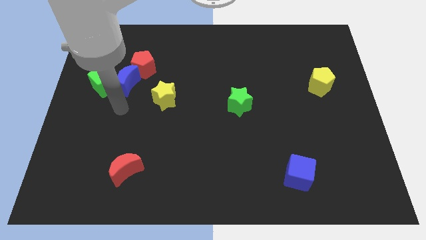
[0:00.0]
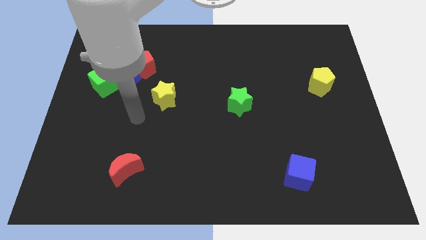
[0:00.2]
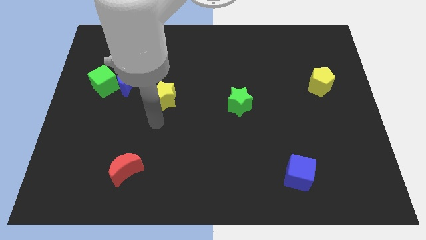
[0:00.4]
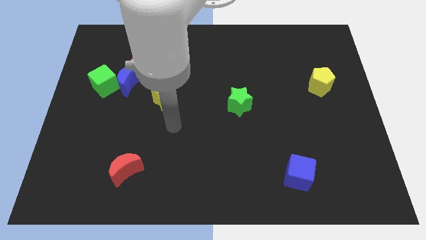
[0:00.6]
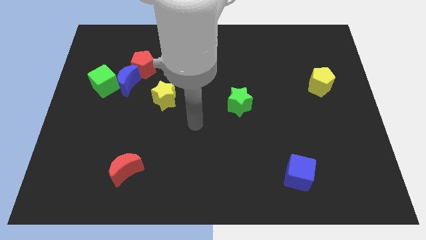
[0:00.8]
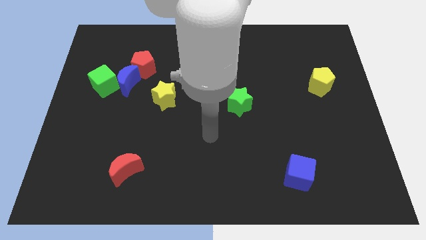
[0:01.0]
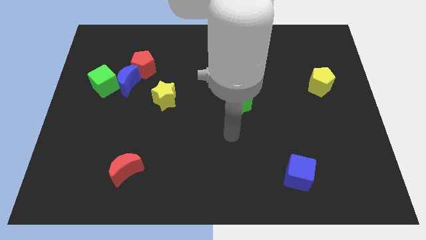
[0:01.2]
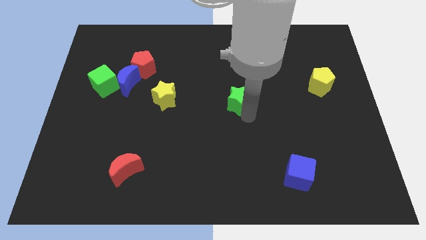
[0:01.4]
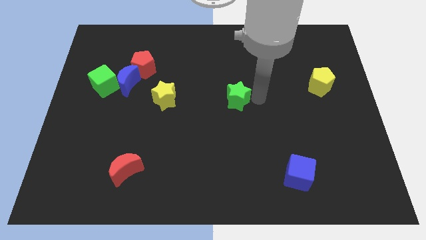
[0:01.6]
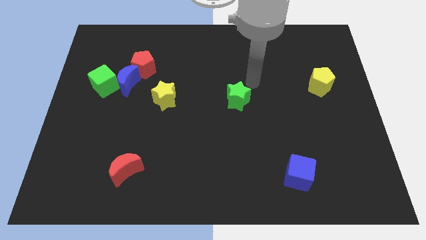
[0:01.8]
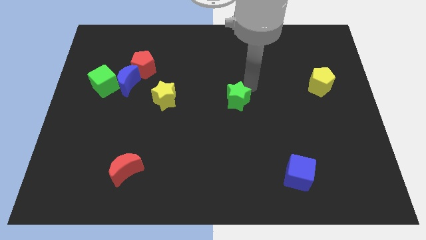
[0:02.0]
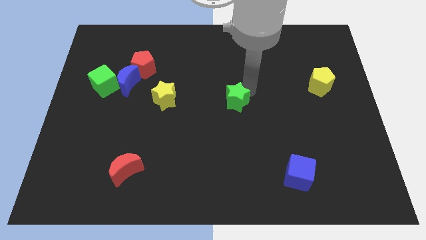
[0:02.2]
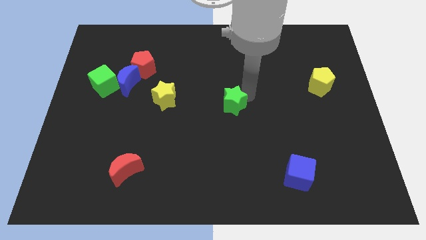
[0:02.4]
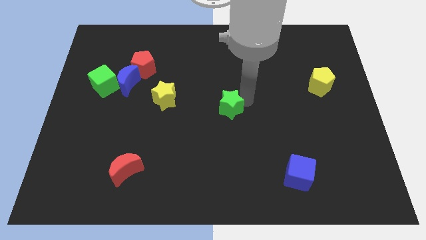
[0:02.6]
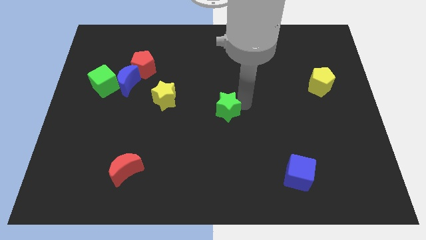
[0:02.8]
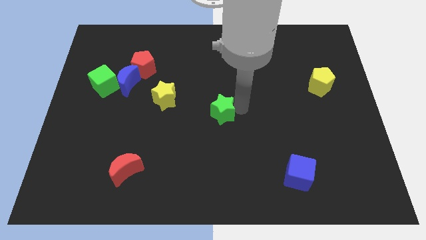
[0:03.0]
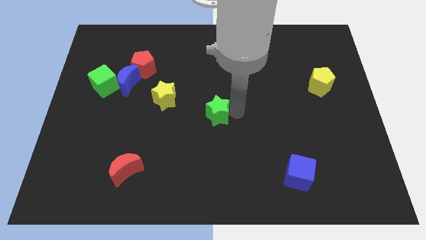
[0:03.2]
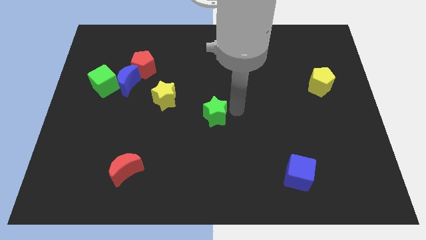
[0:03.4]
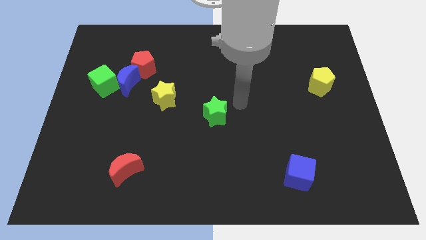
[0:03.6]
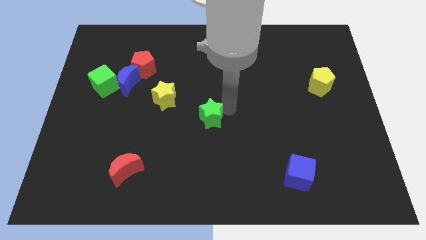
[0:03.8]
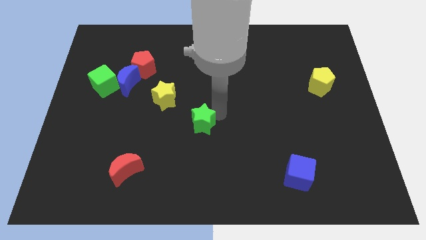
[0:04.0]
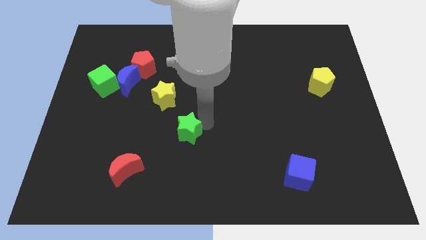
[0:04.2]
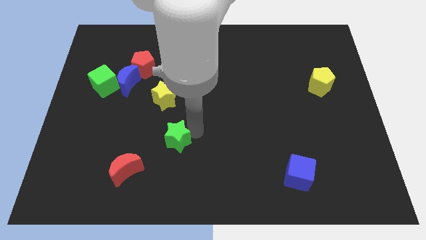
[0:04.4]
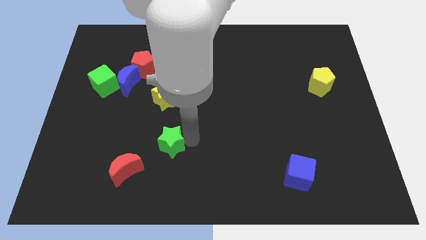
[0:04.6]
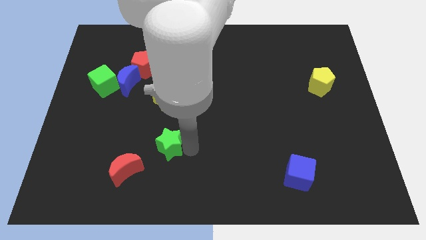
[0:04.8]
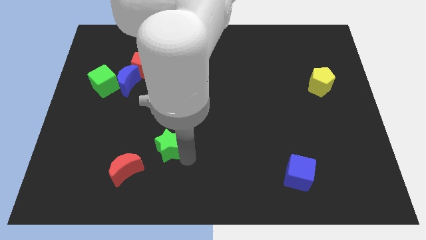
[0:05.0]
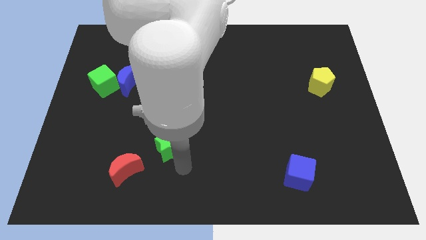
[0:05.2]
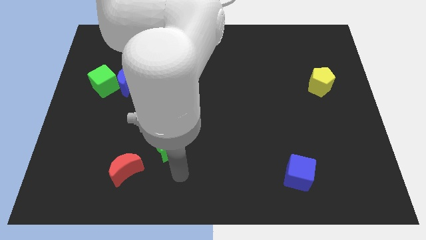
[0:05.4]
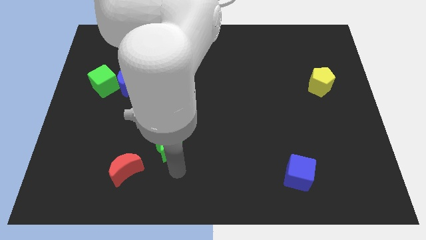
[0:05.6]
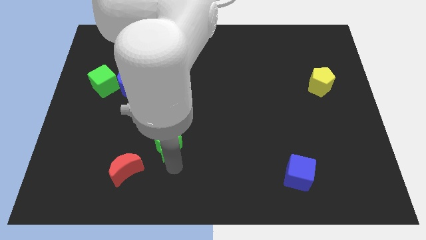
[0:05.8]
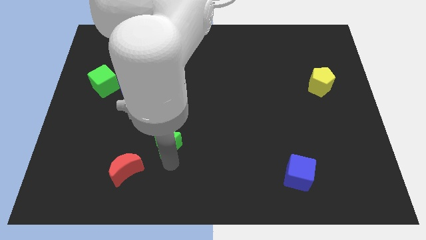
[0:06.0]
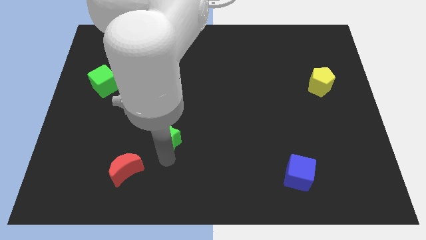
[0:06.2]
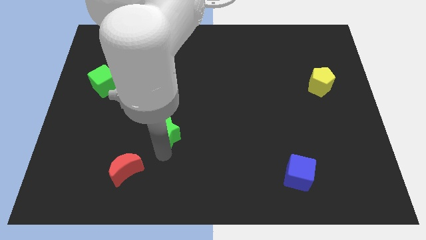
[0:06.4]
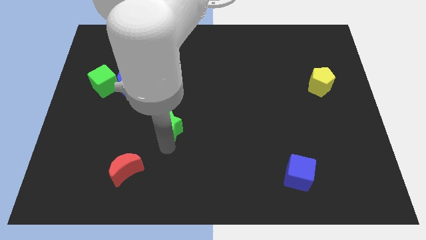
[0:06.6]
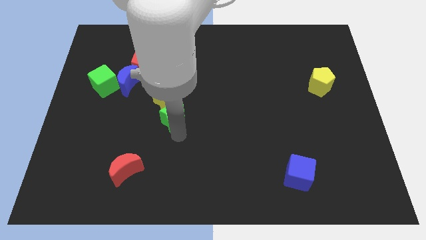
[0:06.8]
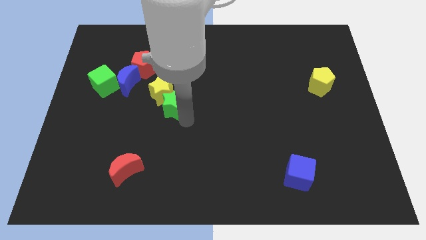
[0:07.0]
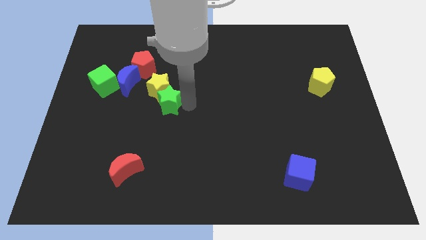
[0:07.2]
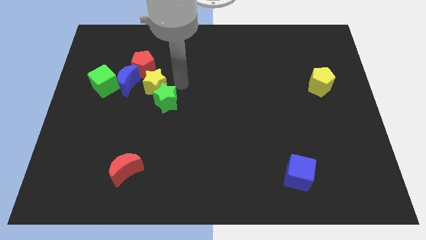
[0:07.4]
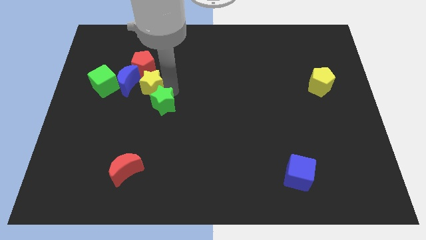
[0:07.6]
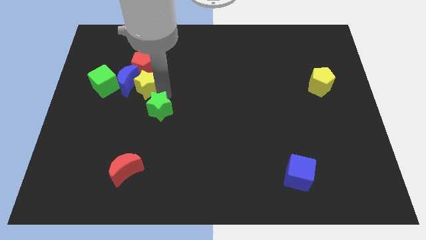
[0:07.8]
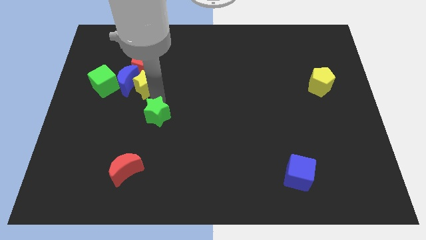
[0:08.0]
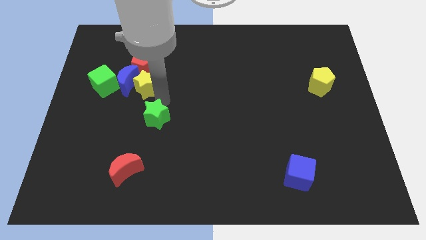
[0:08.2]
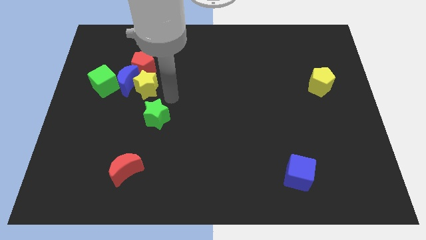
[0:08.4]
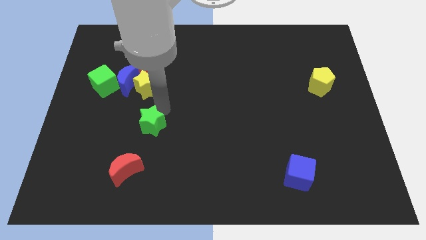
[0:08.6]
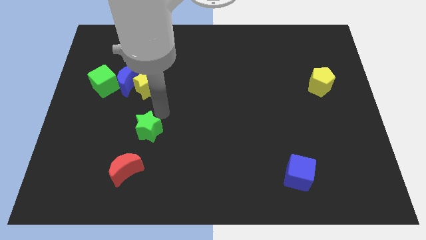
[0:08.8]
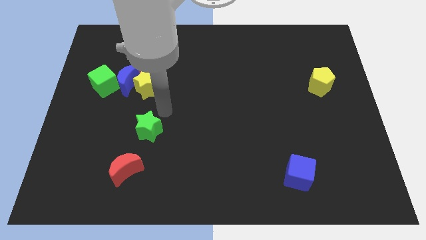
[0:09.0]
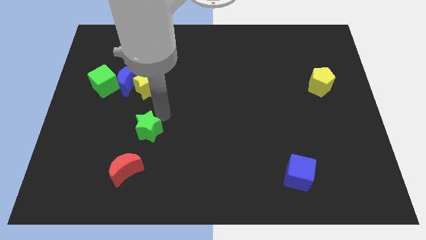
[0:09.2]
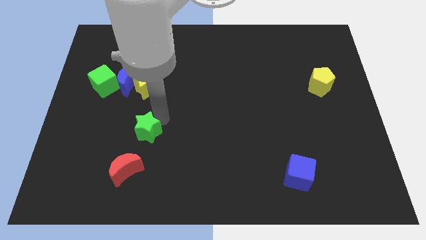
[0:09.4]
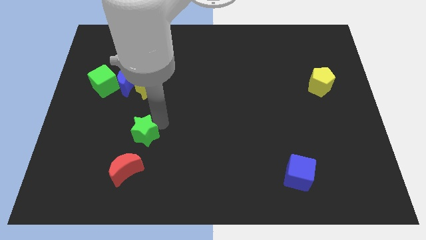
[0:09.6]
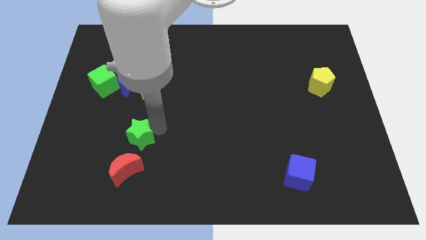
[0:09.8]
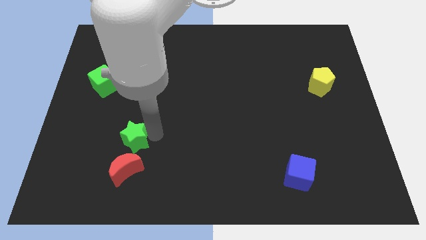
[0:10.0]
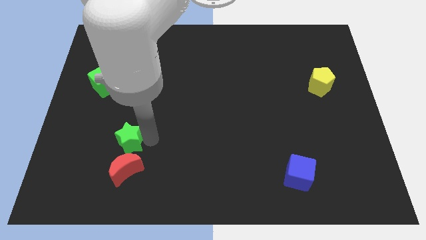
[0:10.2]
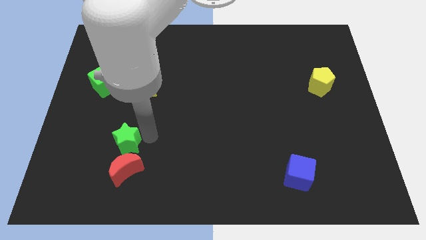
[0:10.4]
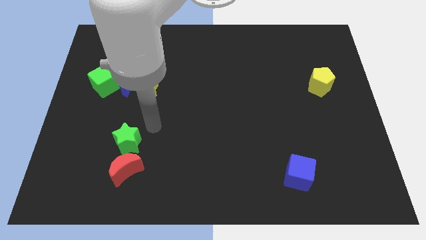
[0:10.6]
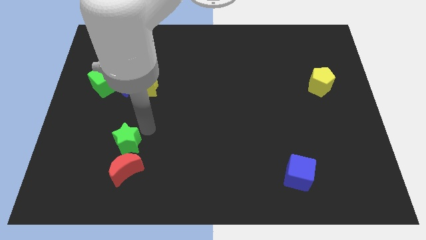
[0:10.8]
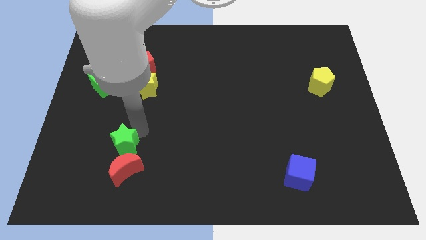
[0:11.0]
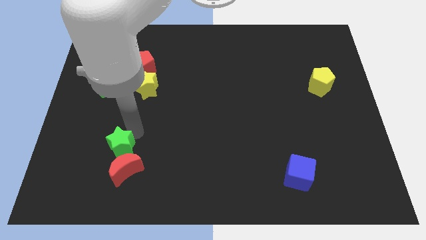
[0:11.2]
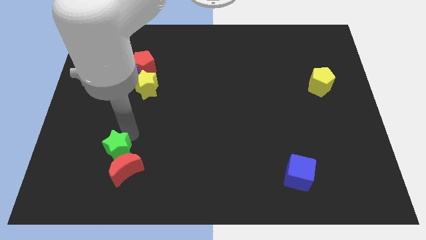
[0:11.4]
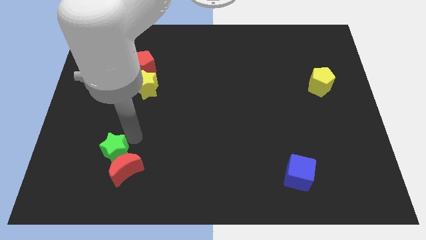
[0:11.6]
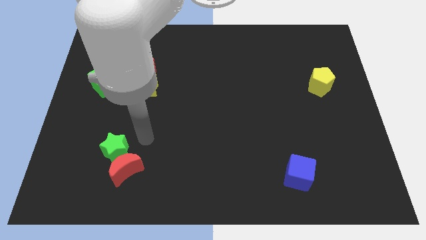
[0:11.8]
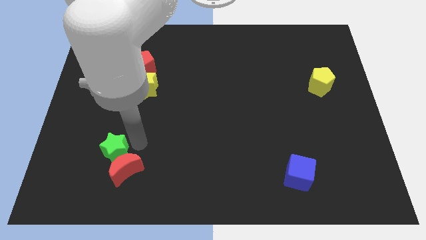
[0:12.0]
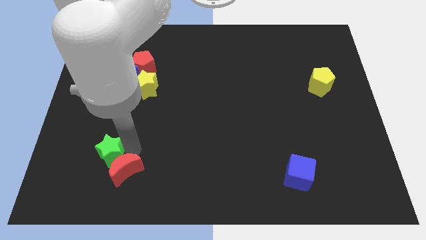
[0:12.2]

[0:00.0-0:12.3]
move the green star left of the red moon

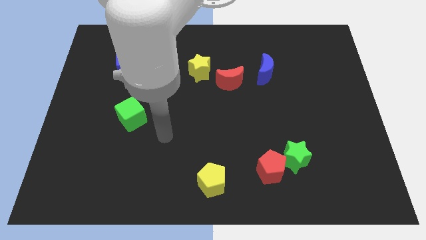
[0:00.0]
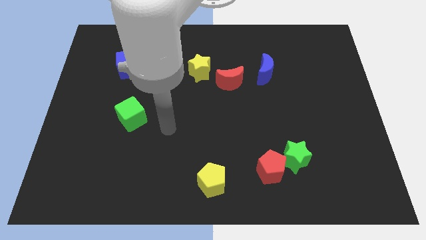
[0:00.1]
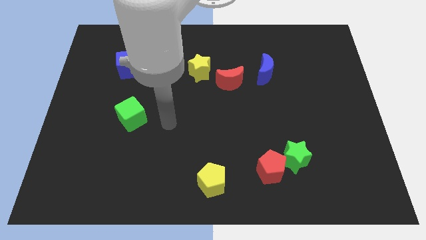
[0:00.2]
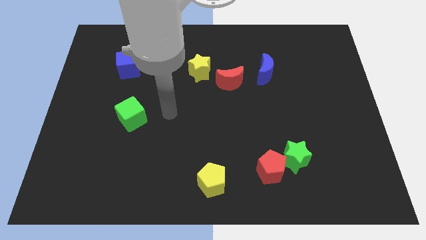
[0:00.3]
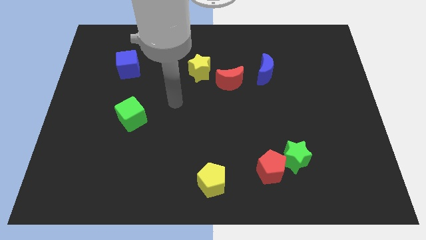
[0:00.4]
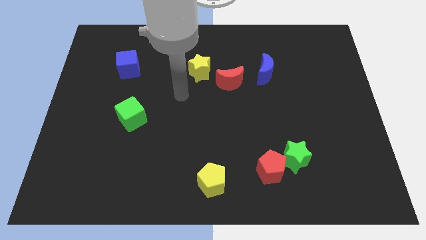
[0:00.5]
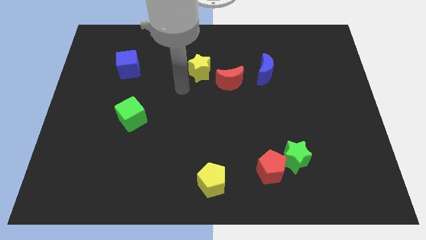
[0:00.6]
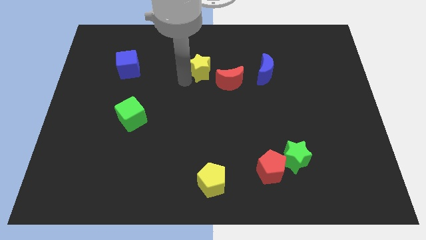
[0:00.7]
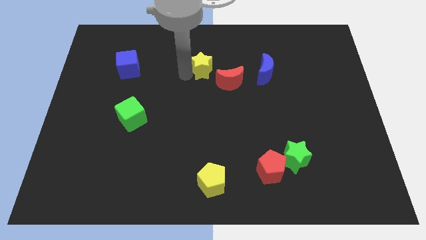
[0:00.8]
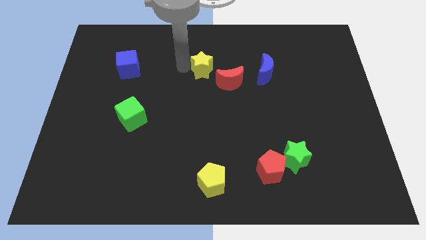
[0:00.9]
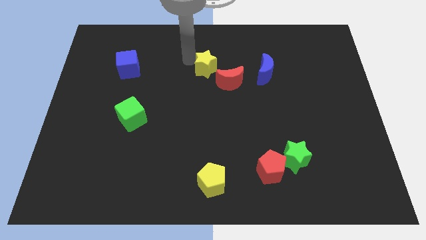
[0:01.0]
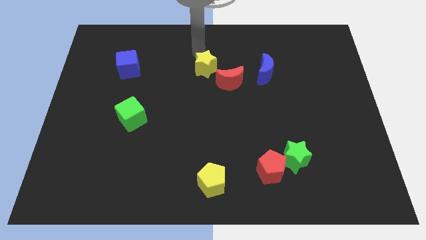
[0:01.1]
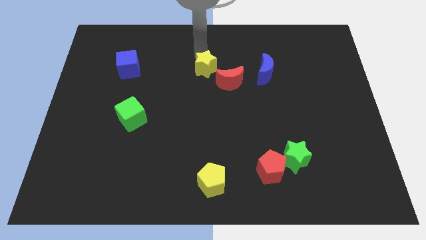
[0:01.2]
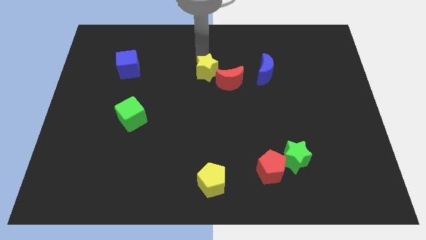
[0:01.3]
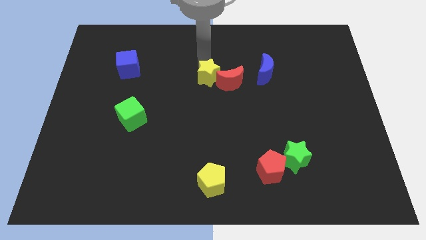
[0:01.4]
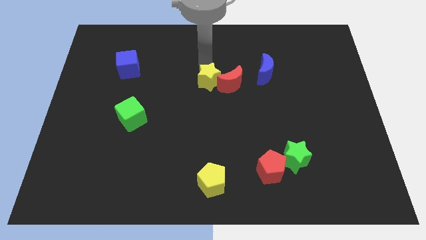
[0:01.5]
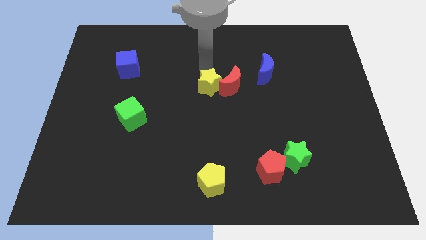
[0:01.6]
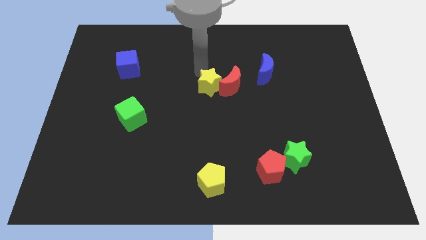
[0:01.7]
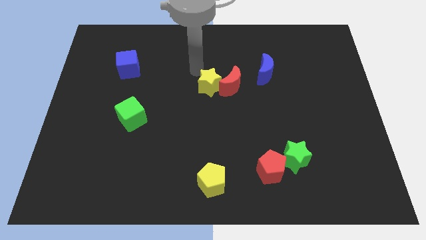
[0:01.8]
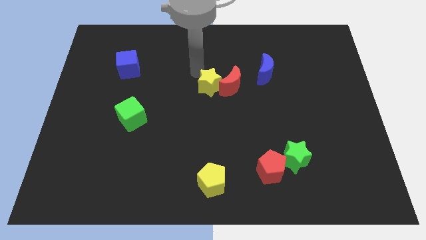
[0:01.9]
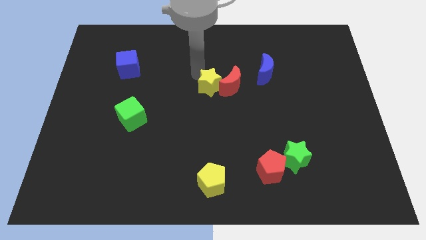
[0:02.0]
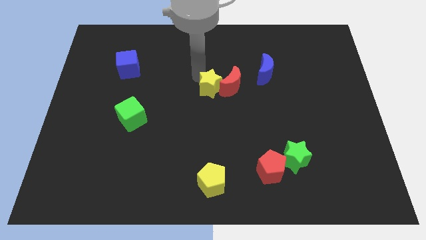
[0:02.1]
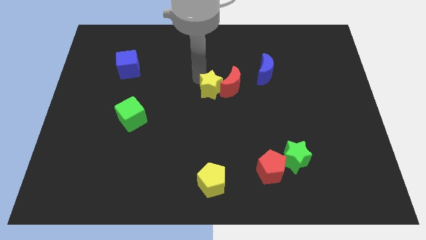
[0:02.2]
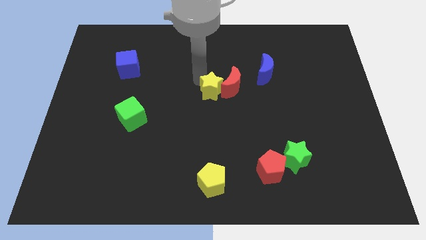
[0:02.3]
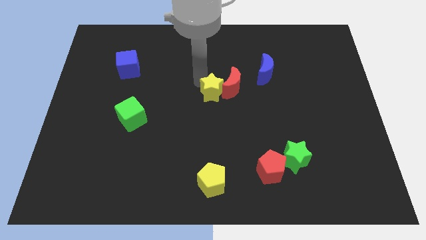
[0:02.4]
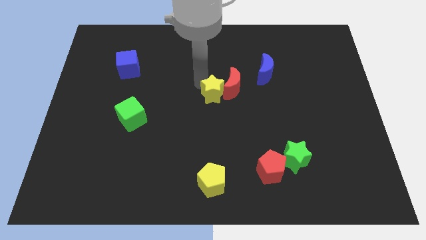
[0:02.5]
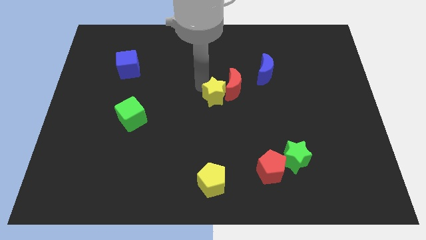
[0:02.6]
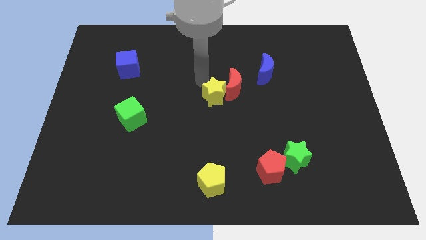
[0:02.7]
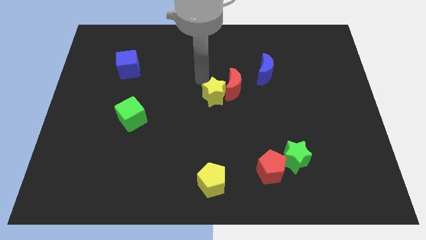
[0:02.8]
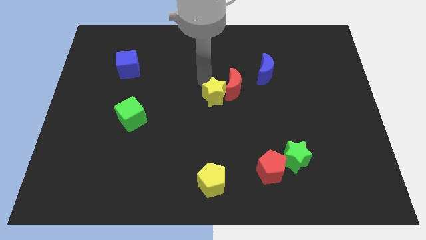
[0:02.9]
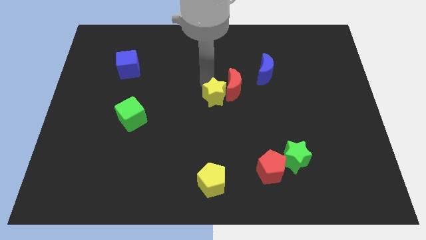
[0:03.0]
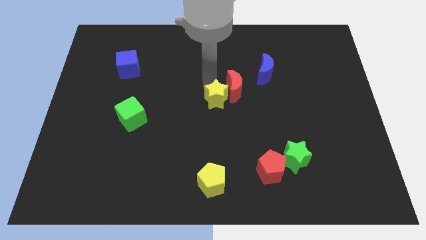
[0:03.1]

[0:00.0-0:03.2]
move the yellow star to the bottom of the red moon
